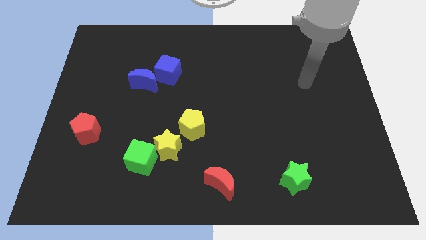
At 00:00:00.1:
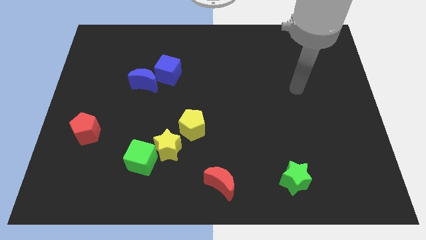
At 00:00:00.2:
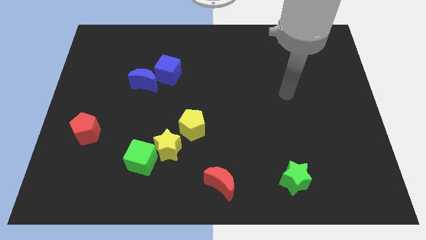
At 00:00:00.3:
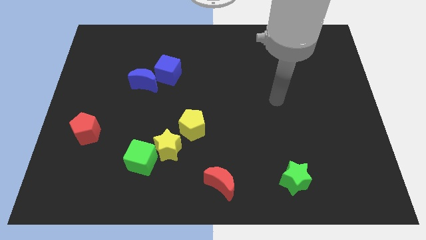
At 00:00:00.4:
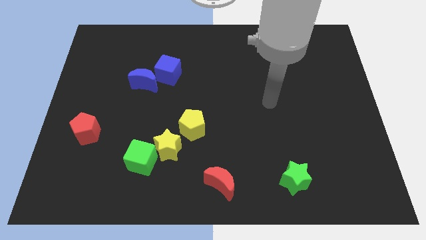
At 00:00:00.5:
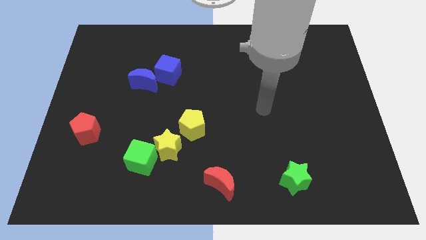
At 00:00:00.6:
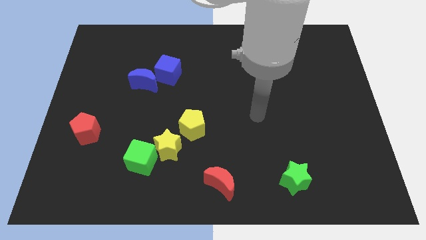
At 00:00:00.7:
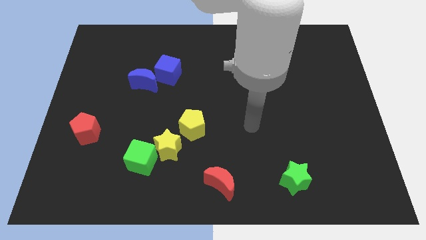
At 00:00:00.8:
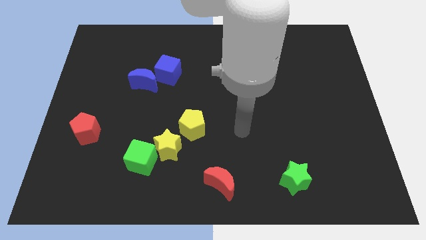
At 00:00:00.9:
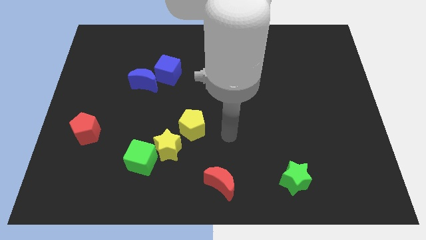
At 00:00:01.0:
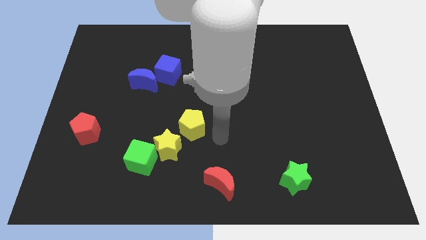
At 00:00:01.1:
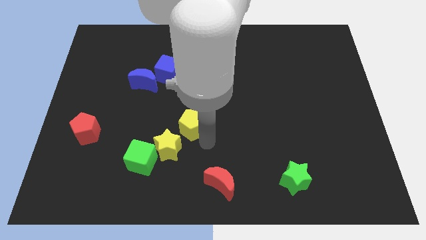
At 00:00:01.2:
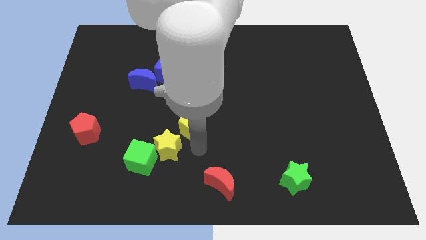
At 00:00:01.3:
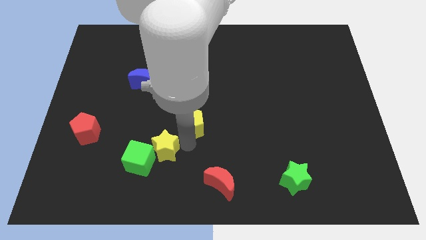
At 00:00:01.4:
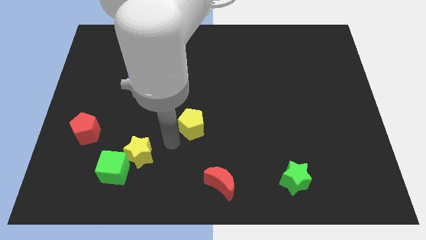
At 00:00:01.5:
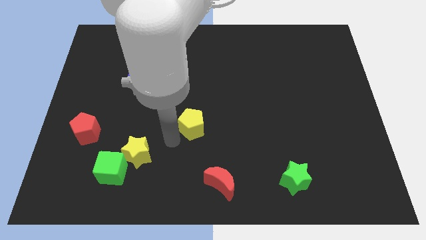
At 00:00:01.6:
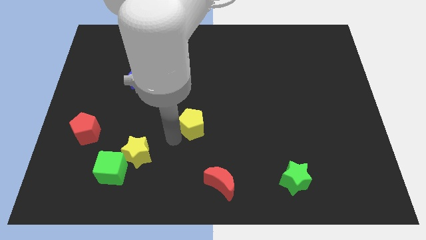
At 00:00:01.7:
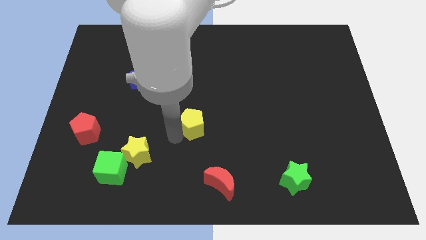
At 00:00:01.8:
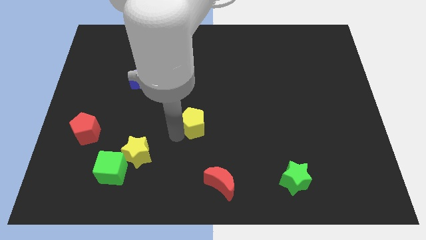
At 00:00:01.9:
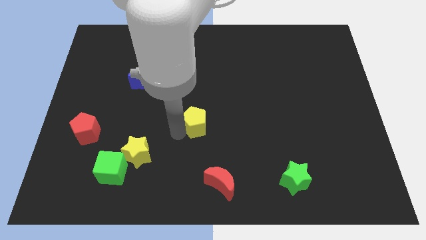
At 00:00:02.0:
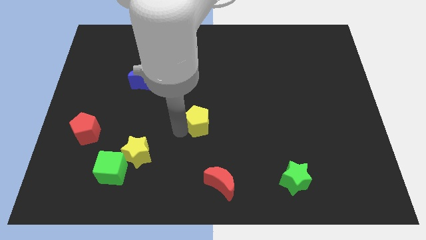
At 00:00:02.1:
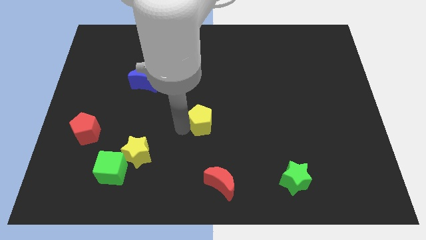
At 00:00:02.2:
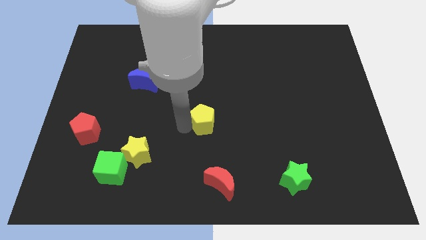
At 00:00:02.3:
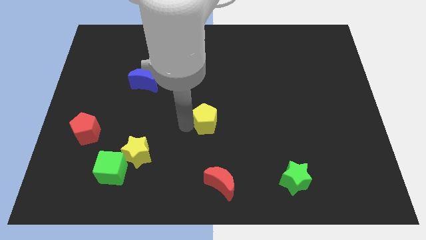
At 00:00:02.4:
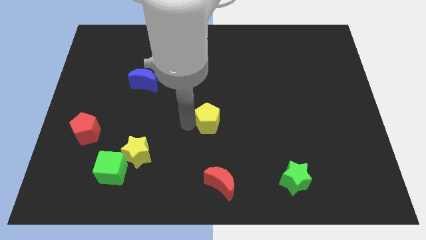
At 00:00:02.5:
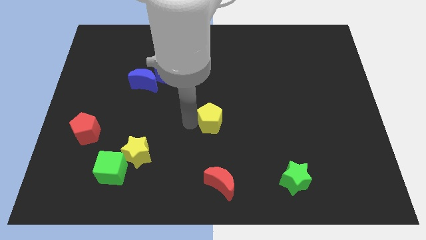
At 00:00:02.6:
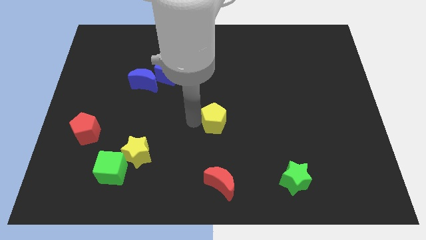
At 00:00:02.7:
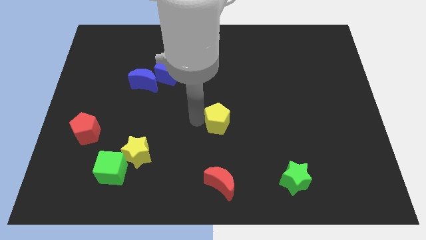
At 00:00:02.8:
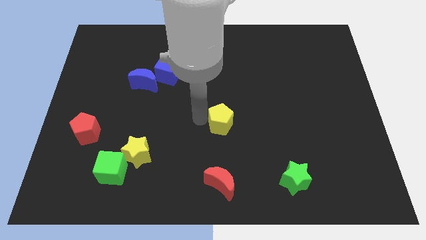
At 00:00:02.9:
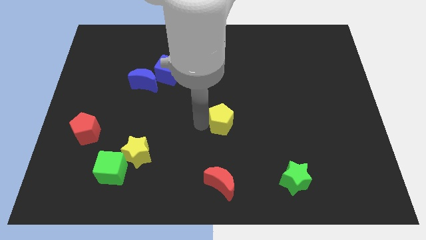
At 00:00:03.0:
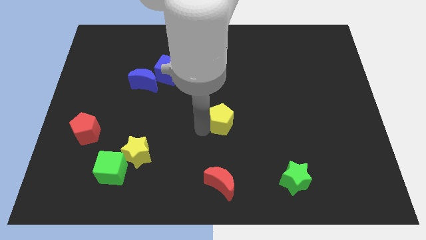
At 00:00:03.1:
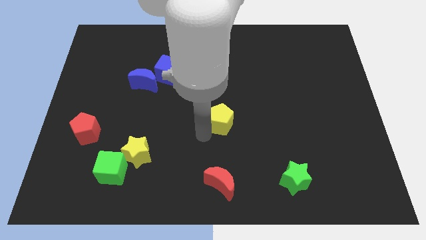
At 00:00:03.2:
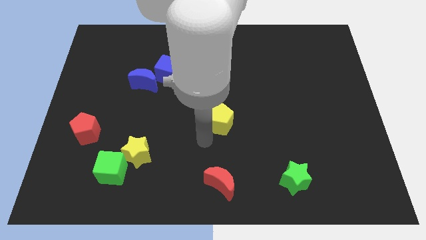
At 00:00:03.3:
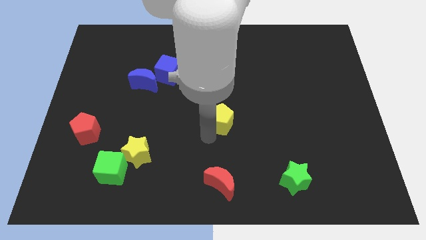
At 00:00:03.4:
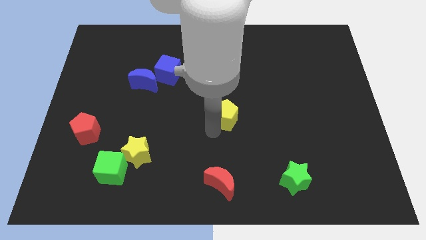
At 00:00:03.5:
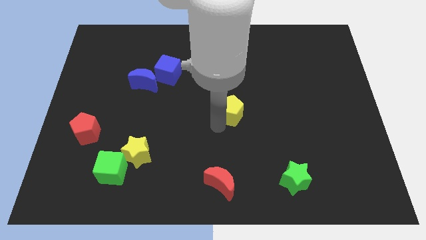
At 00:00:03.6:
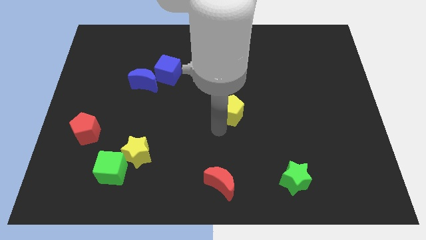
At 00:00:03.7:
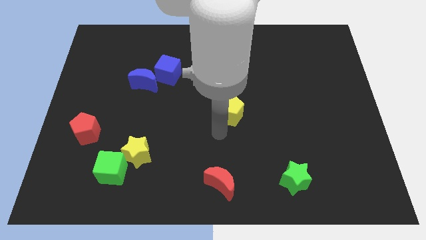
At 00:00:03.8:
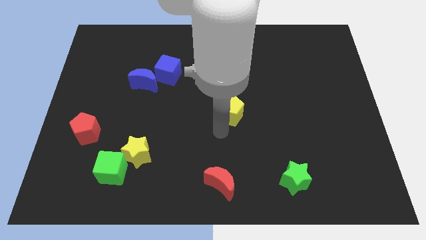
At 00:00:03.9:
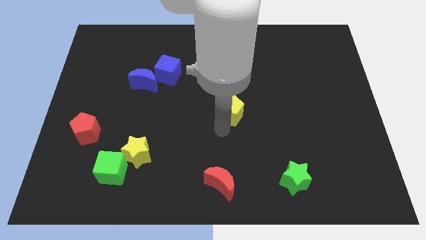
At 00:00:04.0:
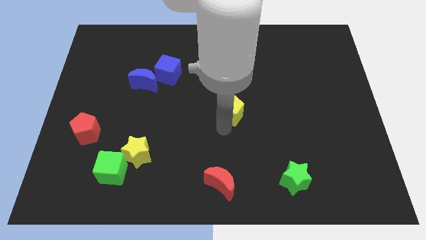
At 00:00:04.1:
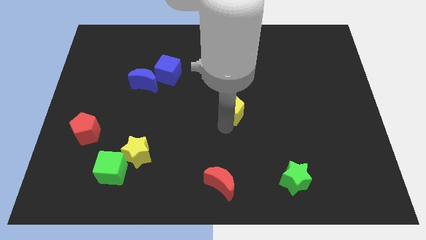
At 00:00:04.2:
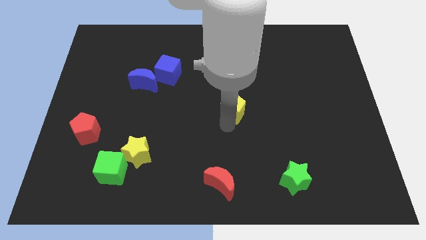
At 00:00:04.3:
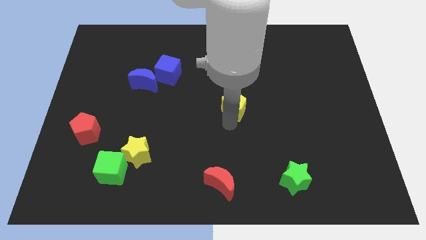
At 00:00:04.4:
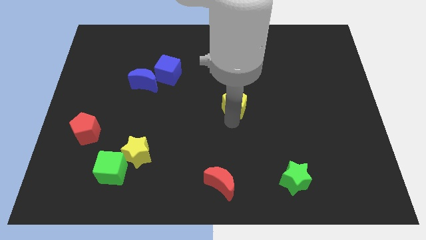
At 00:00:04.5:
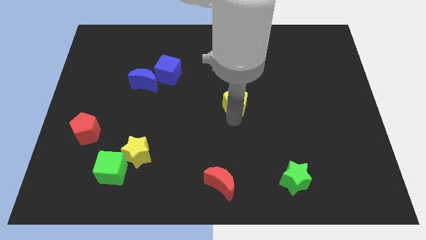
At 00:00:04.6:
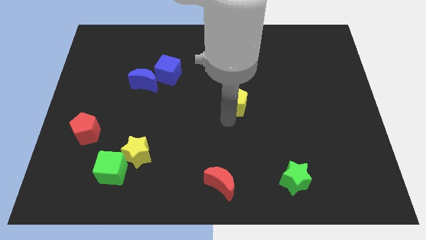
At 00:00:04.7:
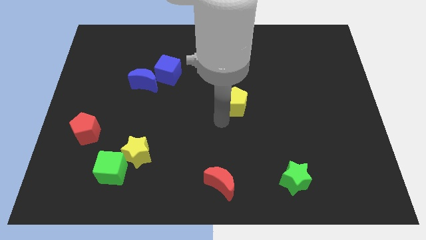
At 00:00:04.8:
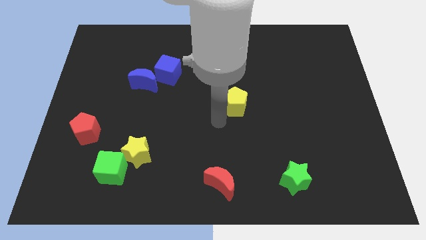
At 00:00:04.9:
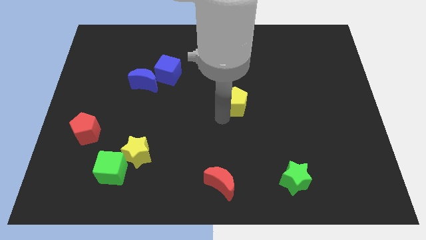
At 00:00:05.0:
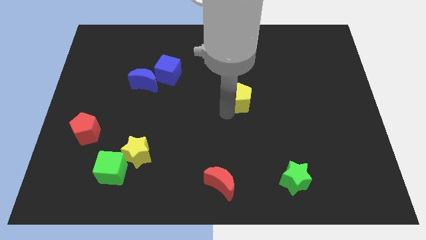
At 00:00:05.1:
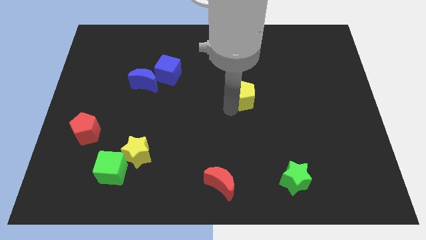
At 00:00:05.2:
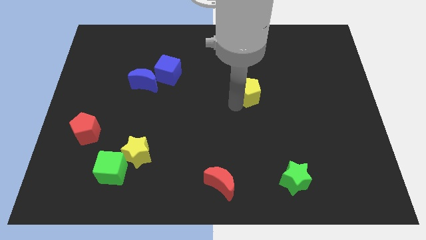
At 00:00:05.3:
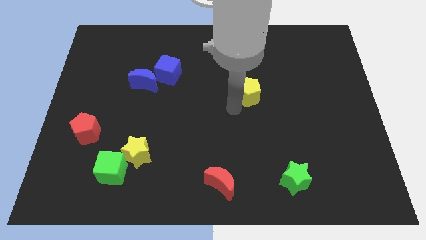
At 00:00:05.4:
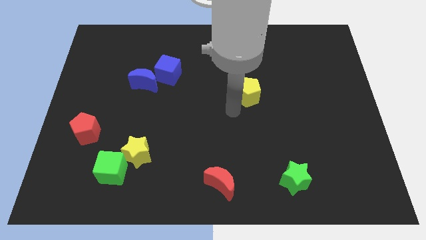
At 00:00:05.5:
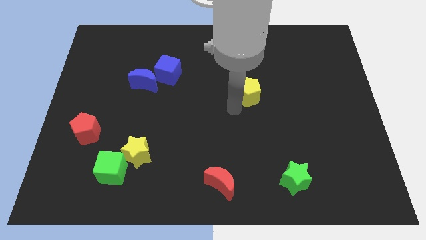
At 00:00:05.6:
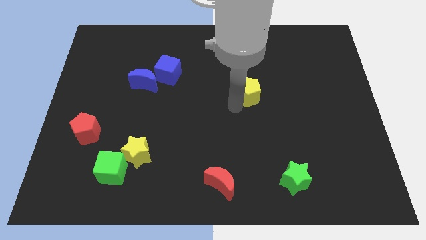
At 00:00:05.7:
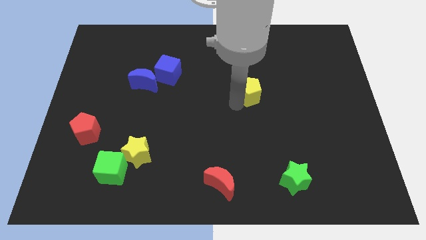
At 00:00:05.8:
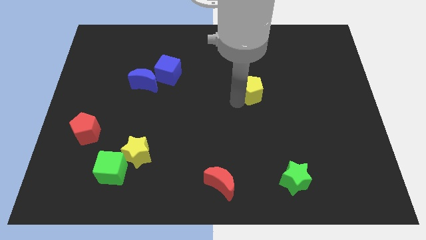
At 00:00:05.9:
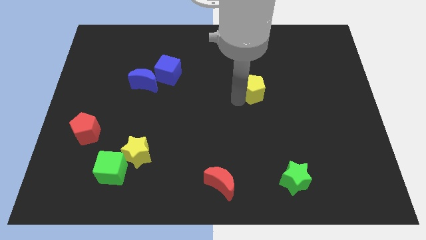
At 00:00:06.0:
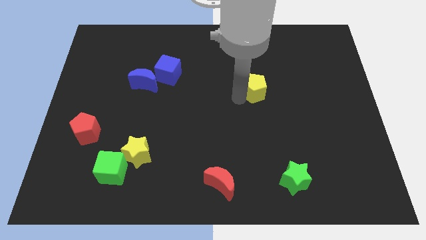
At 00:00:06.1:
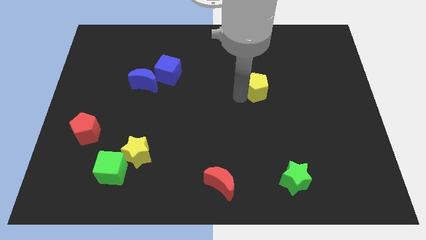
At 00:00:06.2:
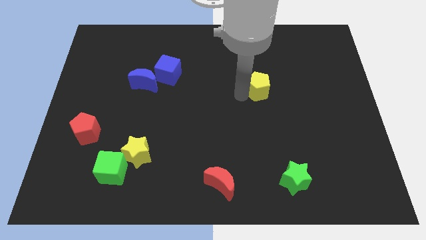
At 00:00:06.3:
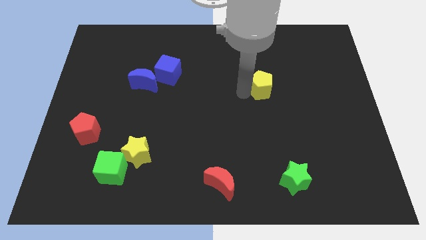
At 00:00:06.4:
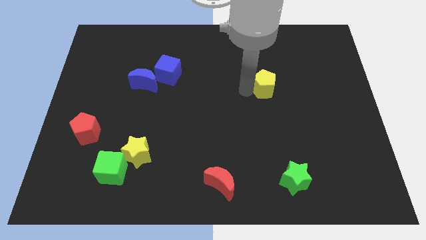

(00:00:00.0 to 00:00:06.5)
push the yellow pentagon up and right diagonally

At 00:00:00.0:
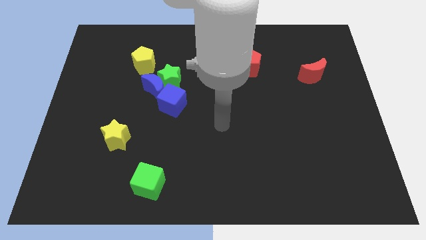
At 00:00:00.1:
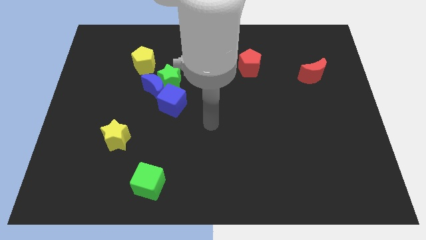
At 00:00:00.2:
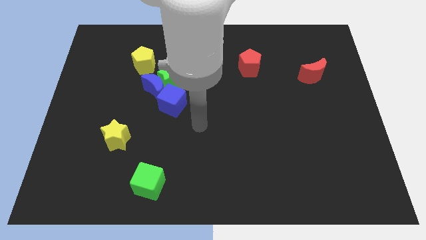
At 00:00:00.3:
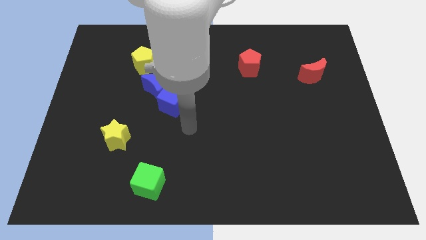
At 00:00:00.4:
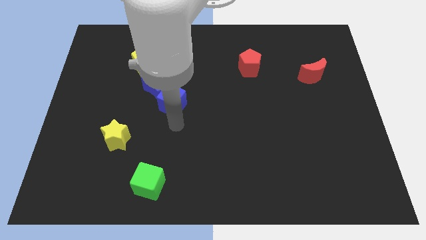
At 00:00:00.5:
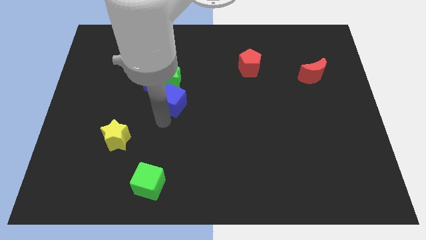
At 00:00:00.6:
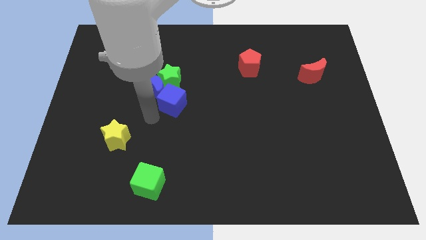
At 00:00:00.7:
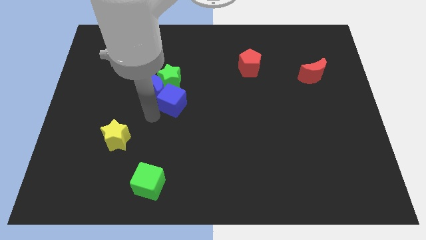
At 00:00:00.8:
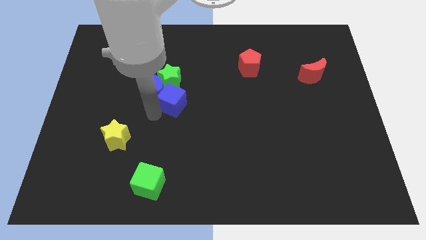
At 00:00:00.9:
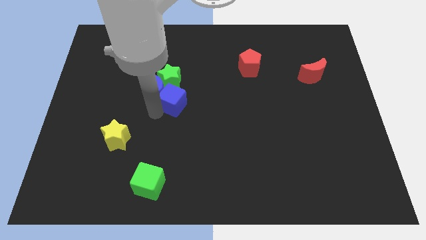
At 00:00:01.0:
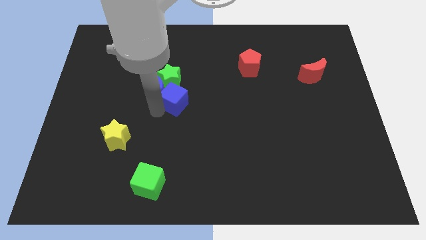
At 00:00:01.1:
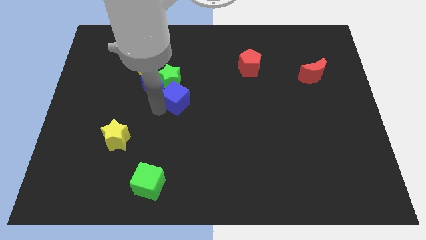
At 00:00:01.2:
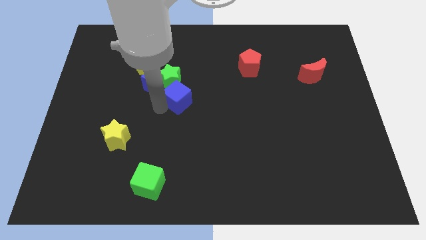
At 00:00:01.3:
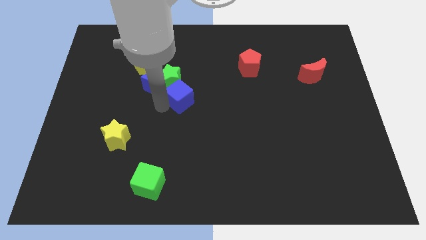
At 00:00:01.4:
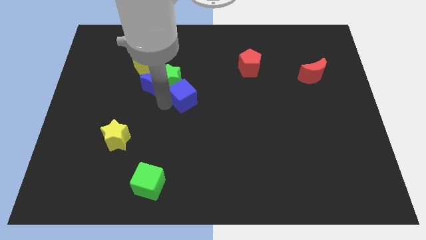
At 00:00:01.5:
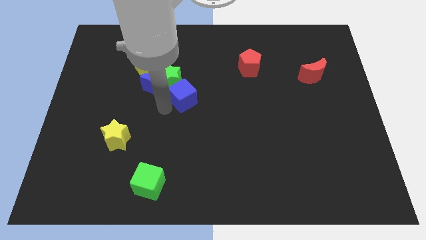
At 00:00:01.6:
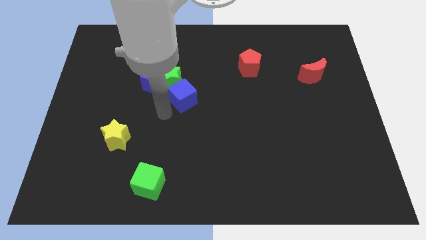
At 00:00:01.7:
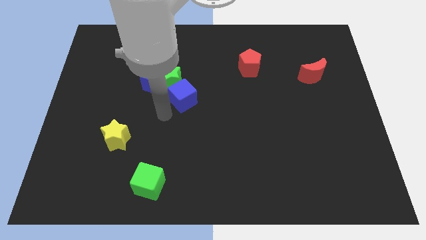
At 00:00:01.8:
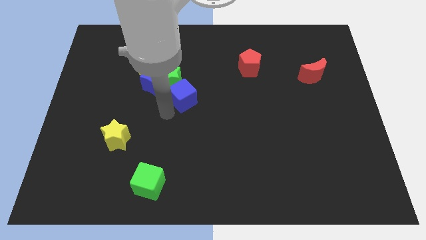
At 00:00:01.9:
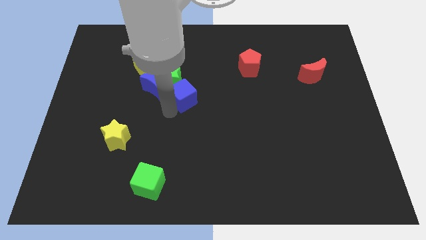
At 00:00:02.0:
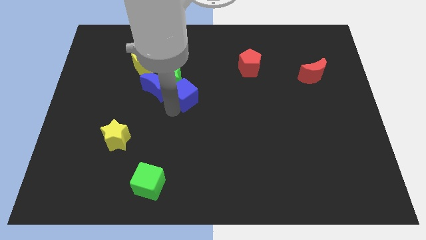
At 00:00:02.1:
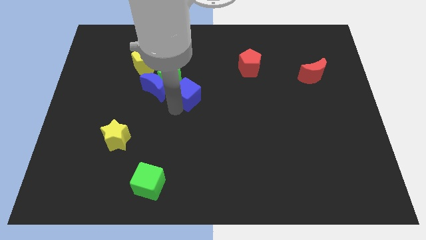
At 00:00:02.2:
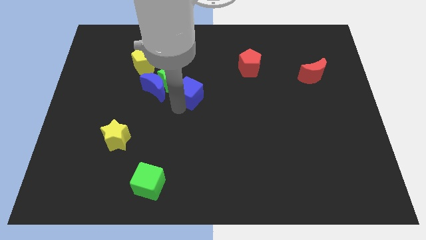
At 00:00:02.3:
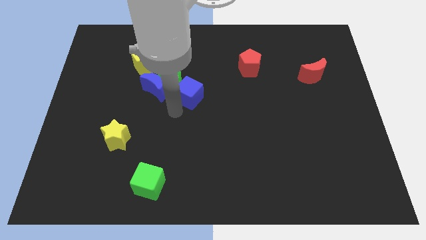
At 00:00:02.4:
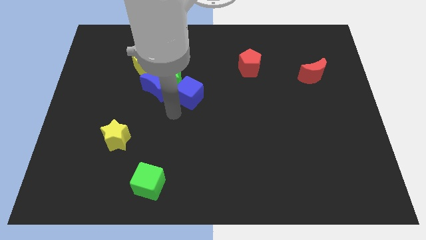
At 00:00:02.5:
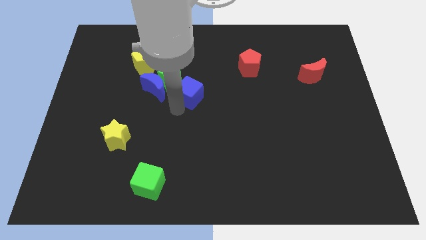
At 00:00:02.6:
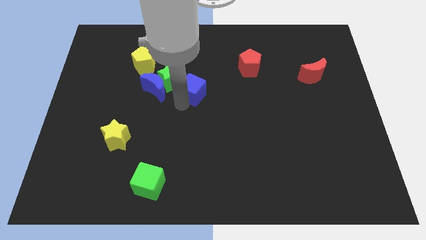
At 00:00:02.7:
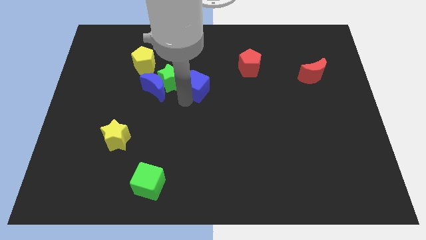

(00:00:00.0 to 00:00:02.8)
slightly push the blue cube diagonally up and to the right
